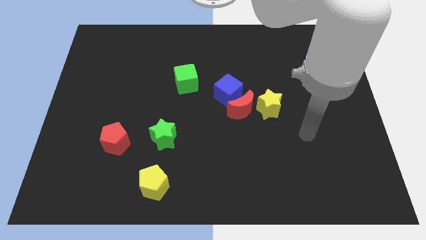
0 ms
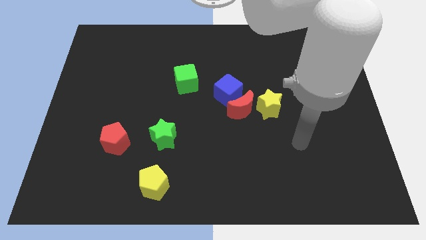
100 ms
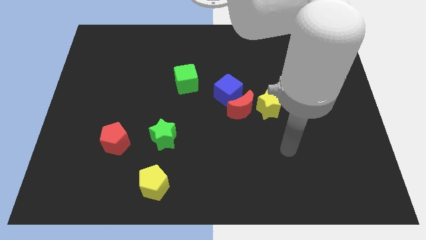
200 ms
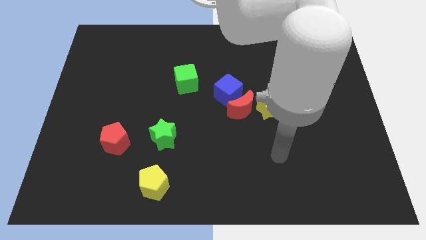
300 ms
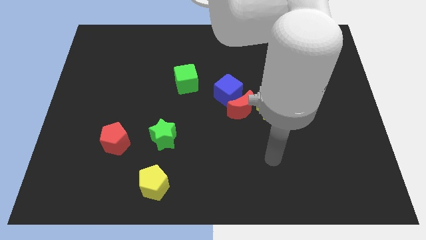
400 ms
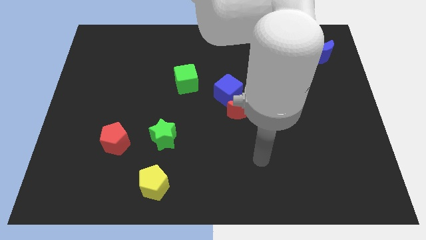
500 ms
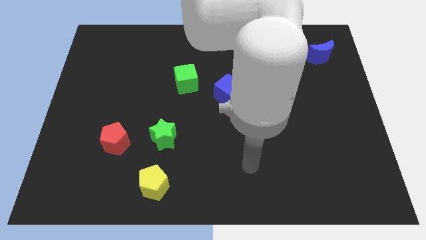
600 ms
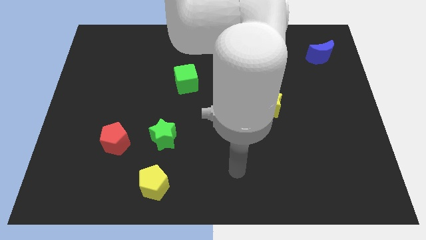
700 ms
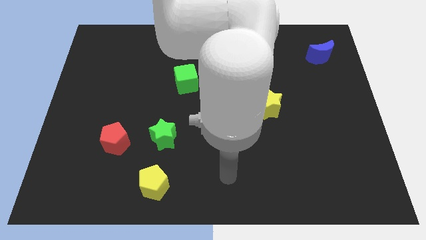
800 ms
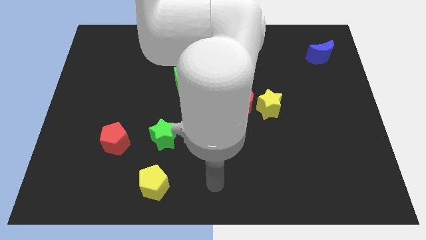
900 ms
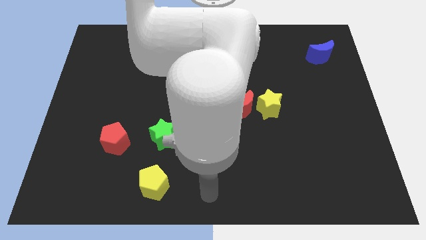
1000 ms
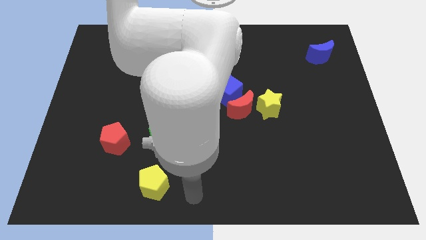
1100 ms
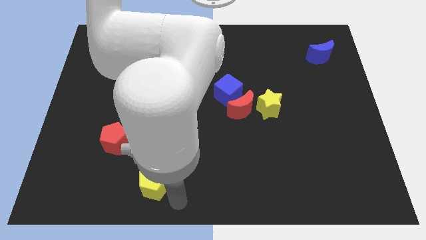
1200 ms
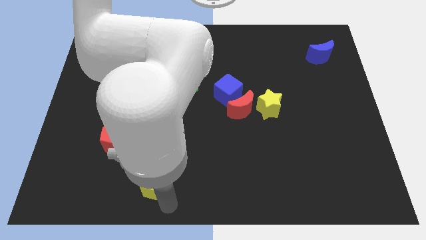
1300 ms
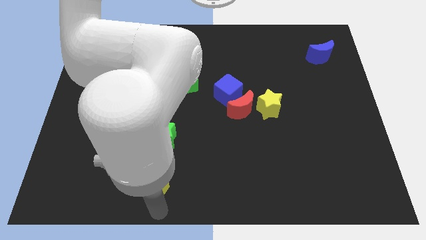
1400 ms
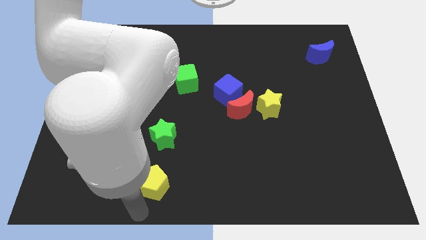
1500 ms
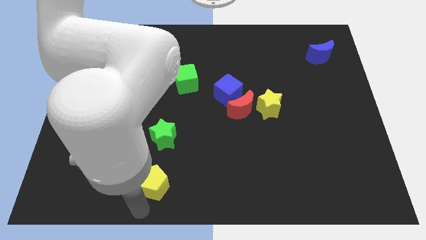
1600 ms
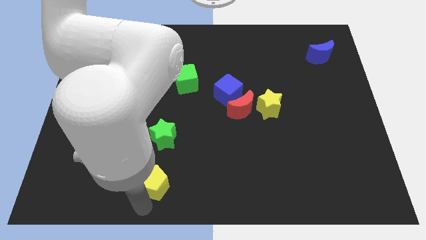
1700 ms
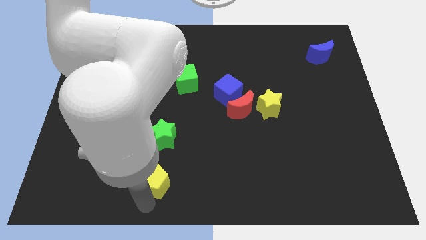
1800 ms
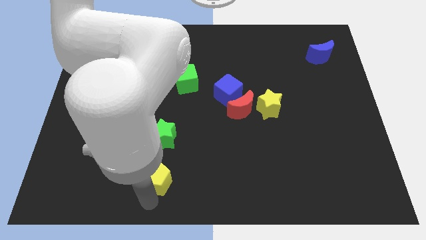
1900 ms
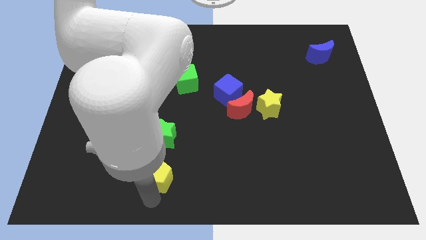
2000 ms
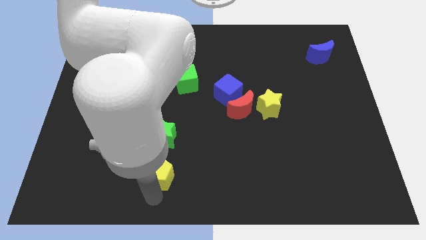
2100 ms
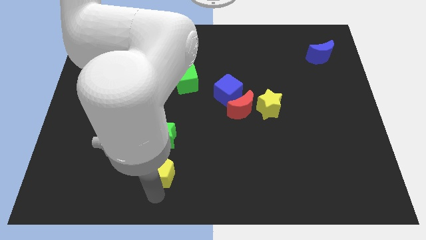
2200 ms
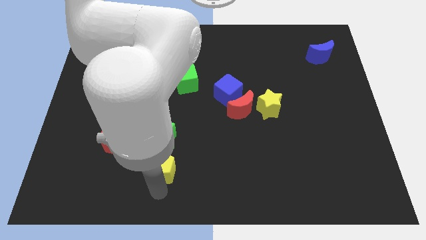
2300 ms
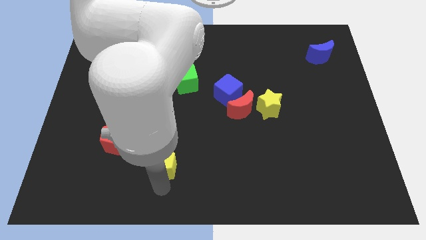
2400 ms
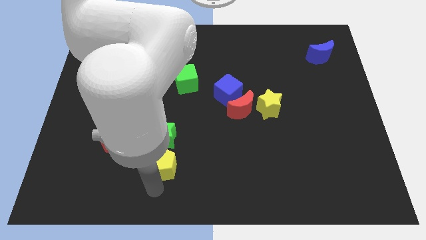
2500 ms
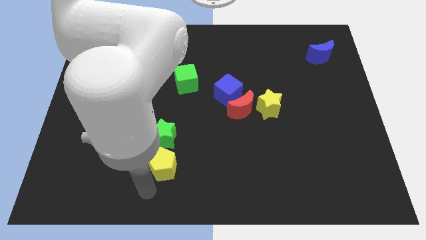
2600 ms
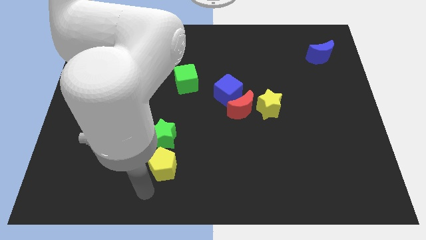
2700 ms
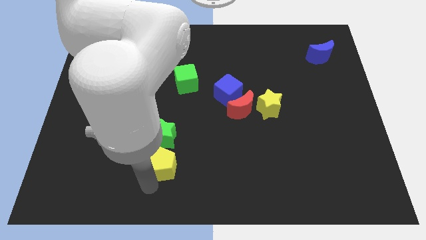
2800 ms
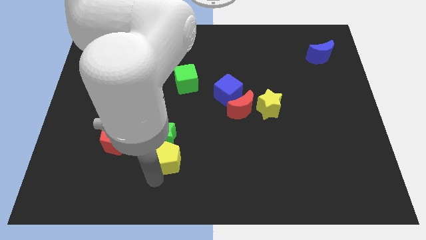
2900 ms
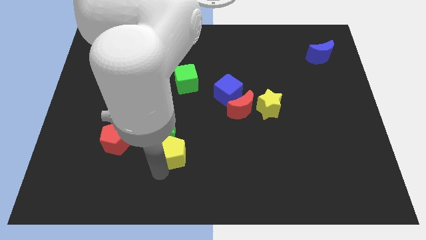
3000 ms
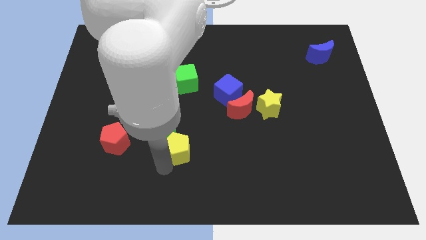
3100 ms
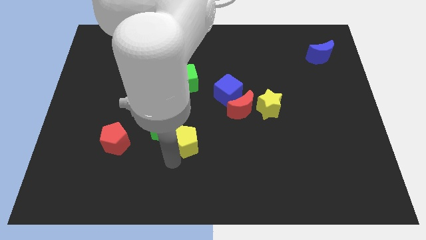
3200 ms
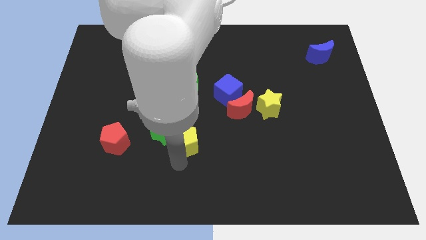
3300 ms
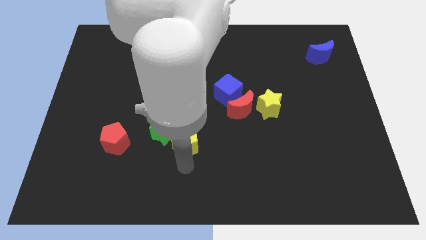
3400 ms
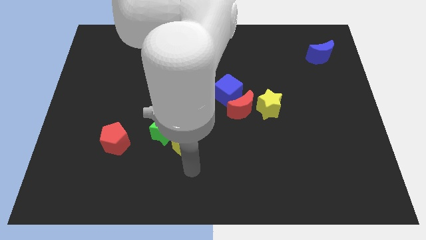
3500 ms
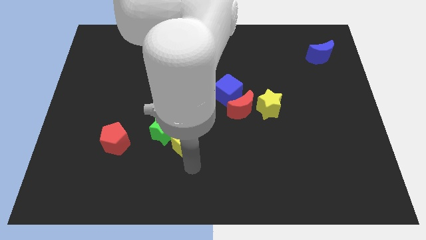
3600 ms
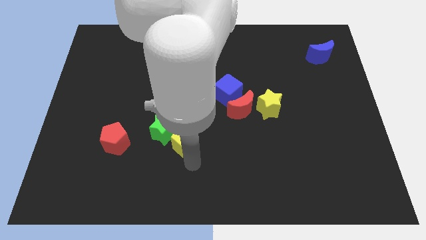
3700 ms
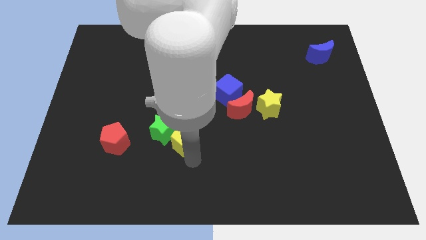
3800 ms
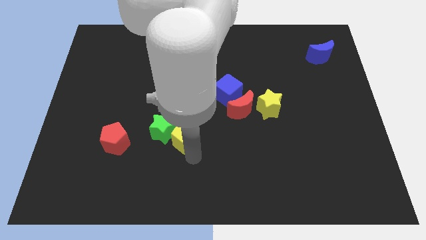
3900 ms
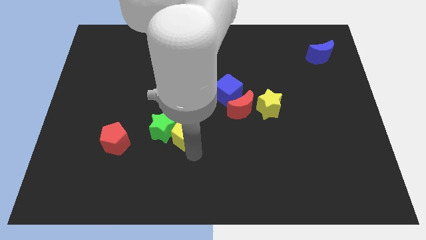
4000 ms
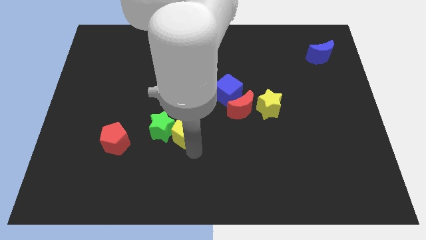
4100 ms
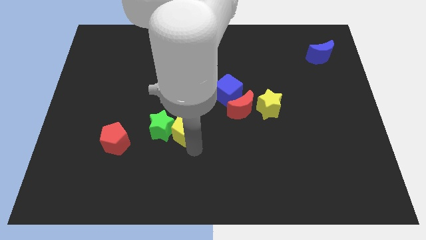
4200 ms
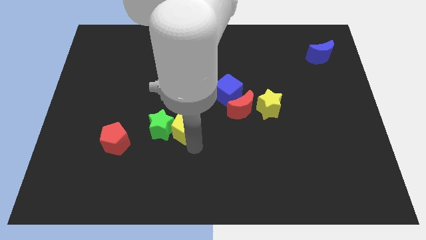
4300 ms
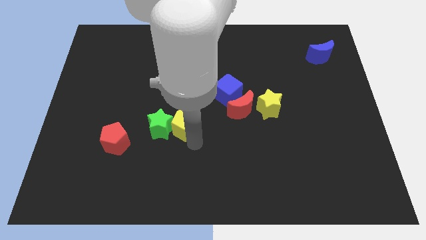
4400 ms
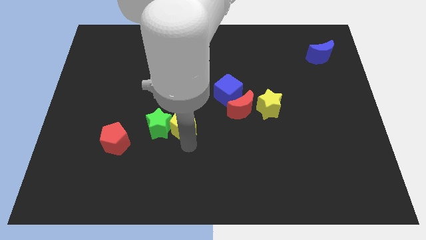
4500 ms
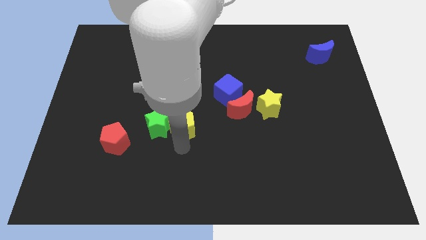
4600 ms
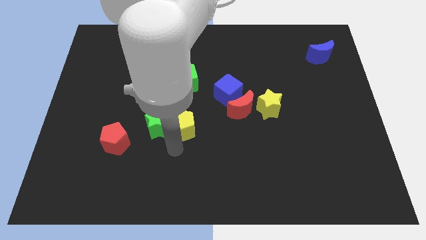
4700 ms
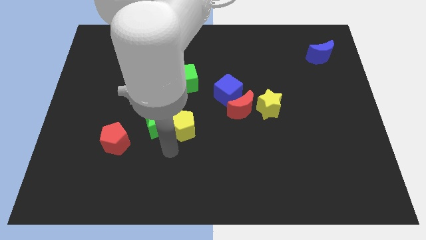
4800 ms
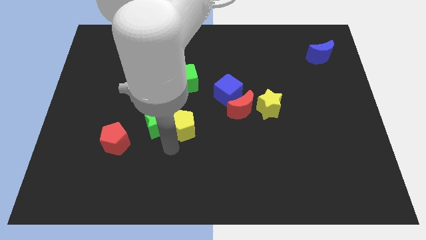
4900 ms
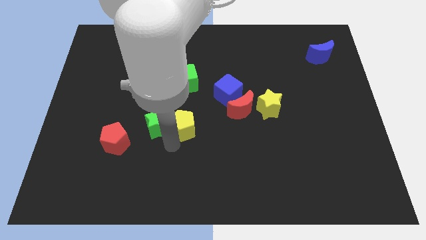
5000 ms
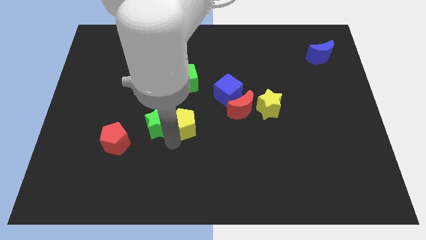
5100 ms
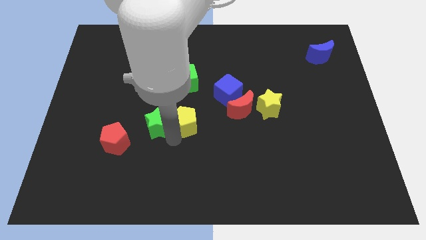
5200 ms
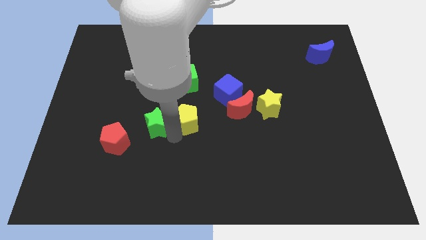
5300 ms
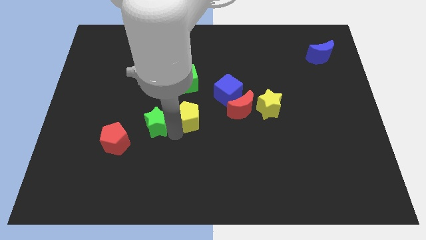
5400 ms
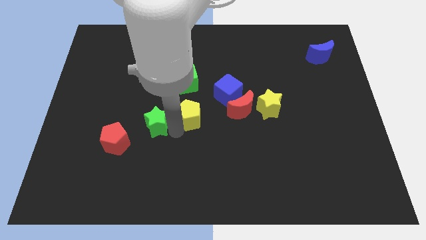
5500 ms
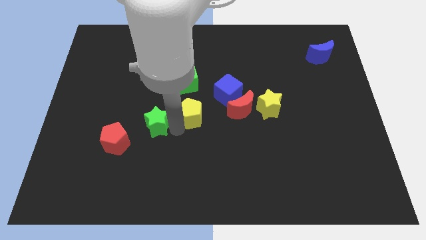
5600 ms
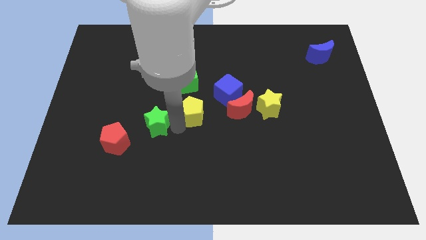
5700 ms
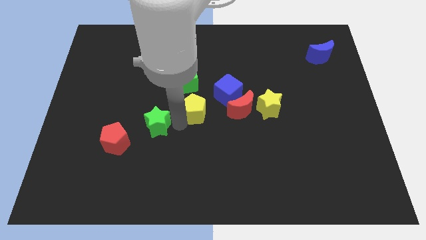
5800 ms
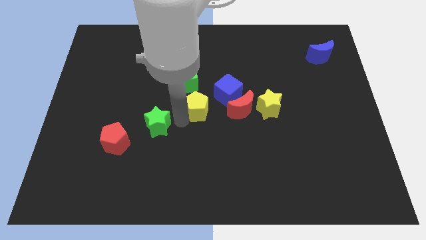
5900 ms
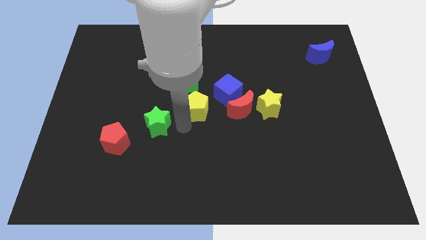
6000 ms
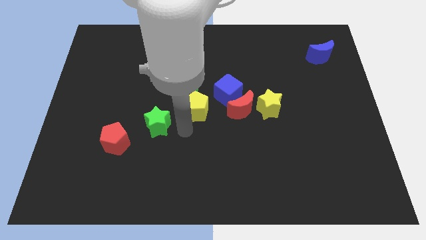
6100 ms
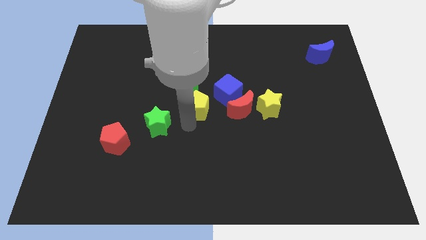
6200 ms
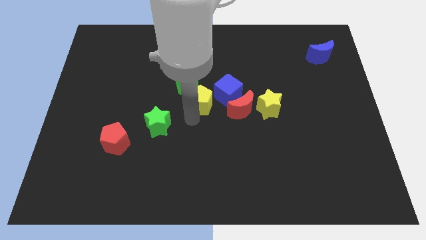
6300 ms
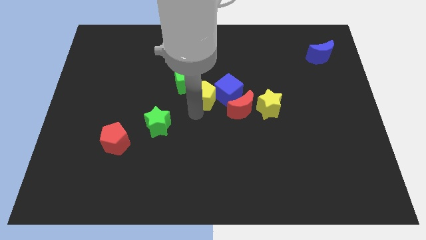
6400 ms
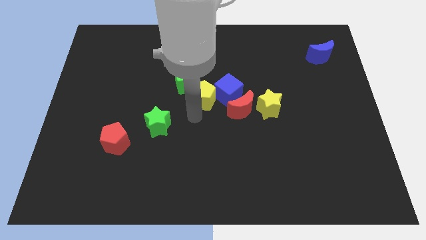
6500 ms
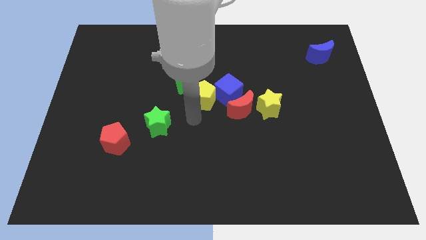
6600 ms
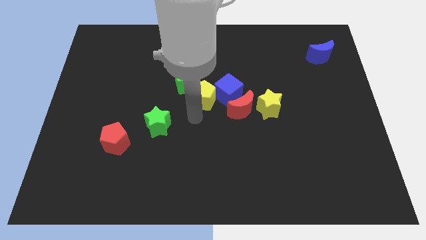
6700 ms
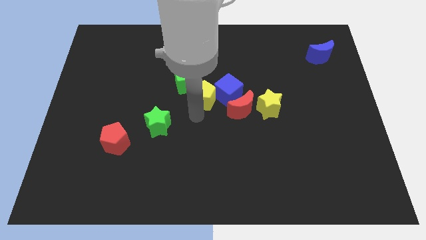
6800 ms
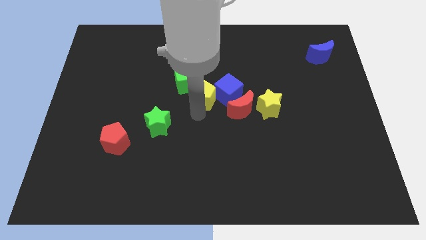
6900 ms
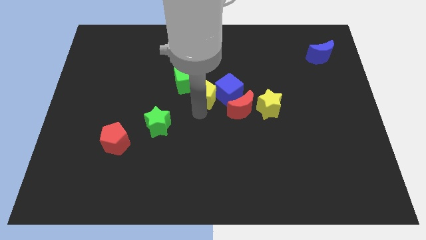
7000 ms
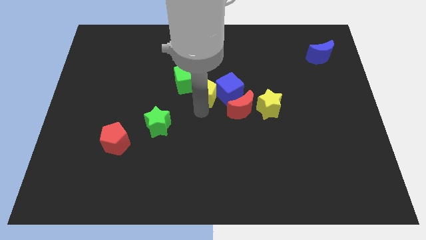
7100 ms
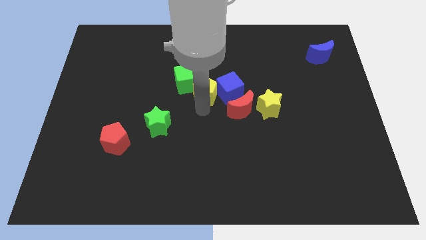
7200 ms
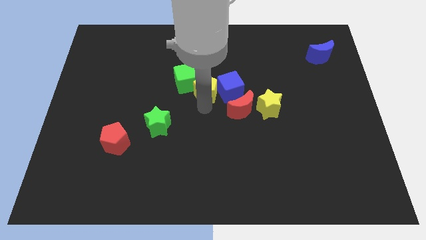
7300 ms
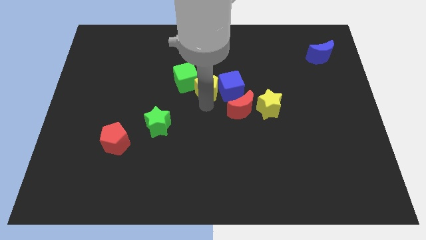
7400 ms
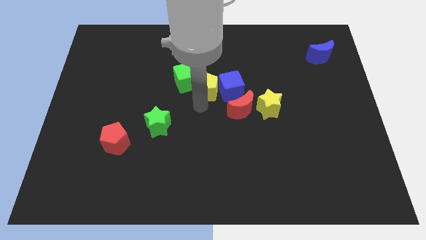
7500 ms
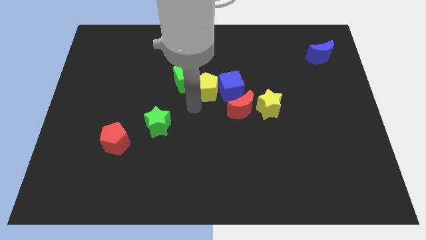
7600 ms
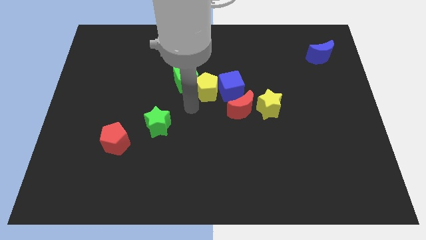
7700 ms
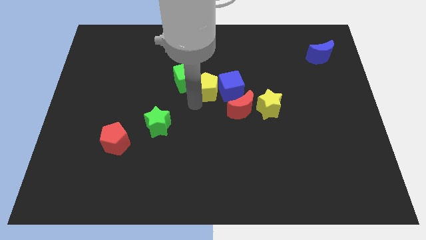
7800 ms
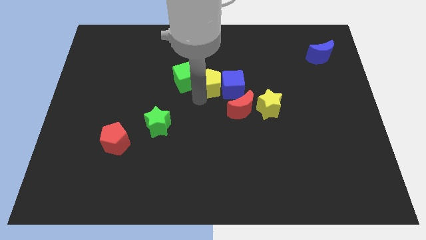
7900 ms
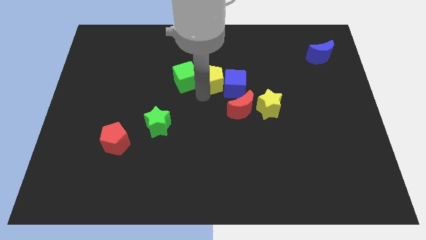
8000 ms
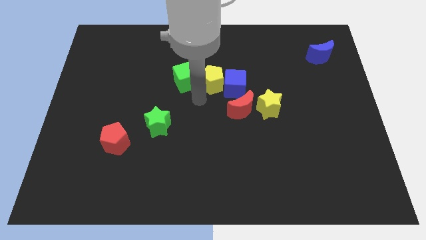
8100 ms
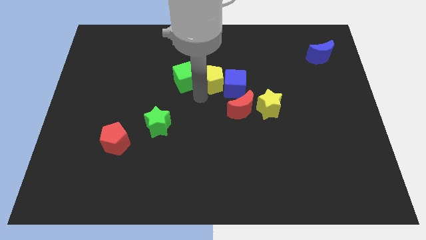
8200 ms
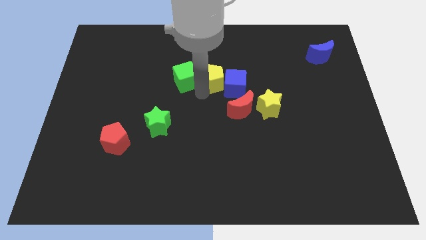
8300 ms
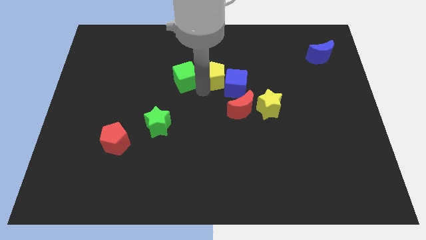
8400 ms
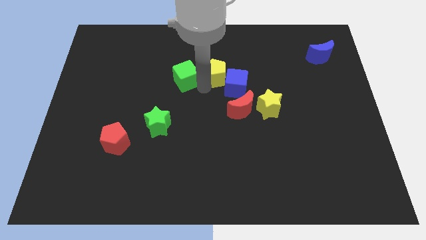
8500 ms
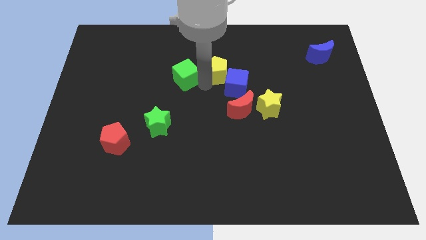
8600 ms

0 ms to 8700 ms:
slide the yellow pentagon to the top side of the blue cube
